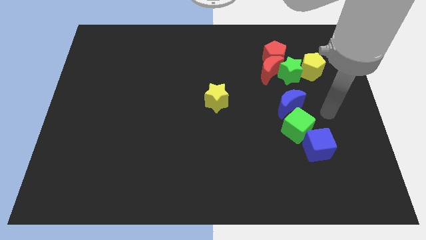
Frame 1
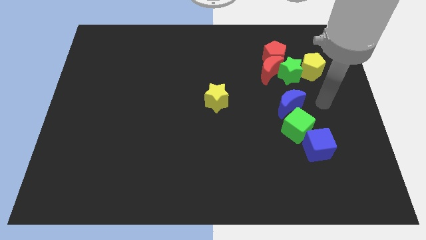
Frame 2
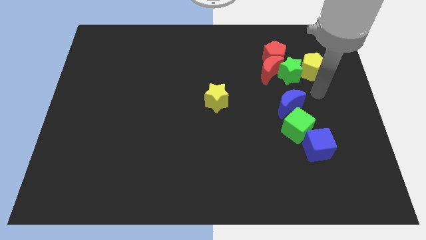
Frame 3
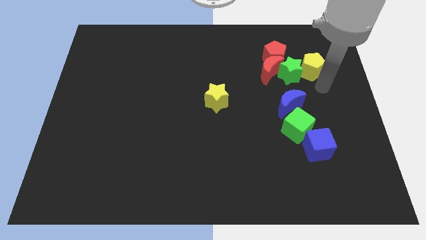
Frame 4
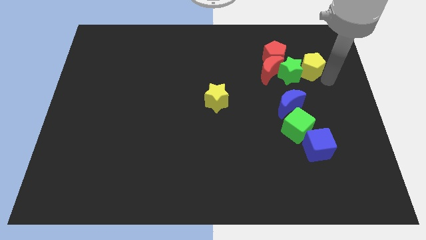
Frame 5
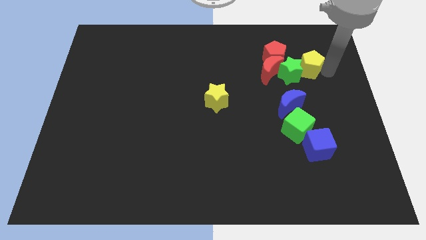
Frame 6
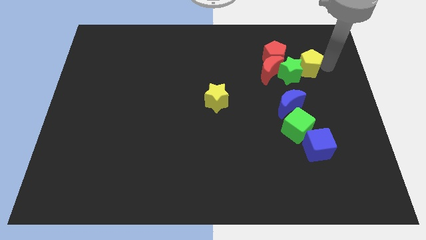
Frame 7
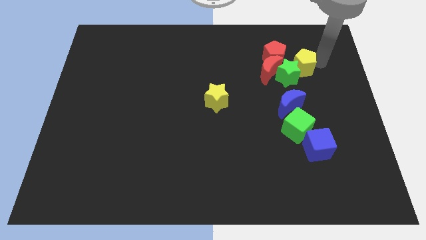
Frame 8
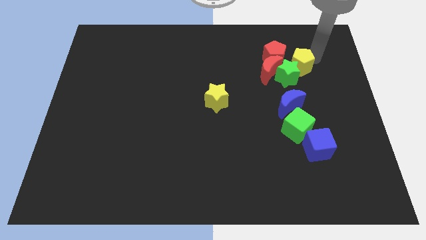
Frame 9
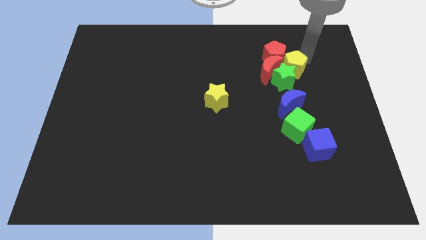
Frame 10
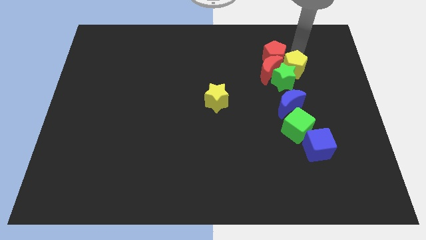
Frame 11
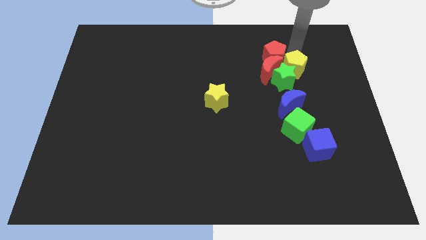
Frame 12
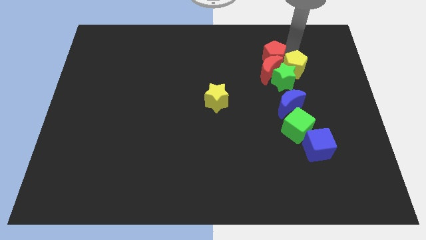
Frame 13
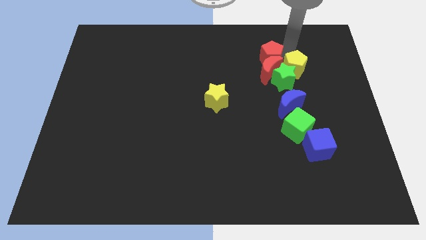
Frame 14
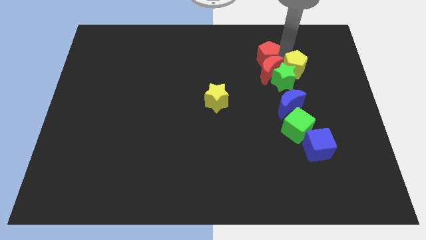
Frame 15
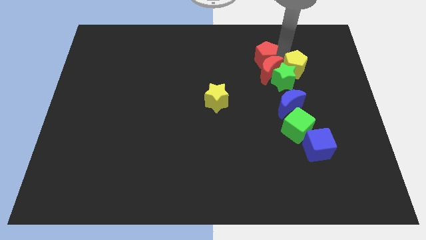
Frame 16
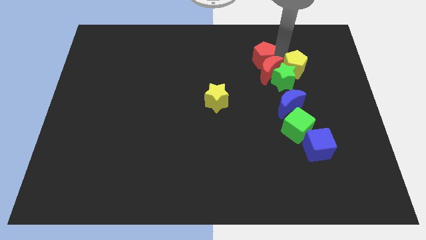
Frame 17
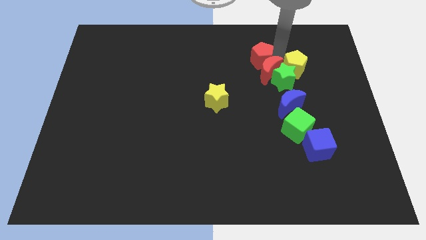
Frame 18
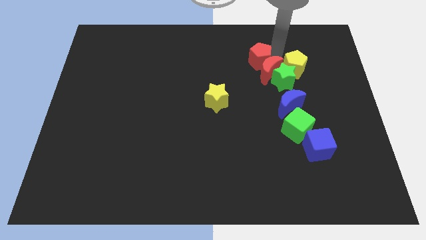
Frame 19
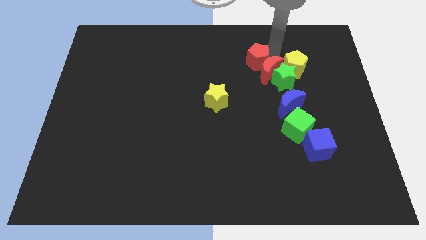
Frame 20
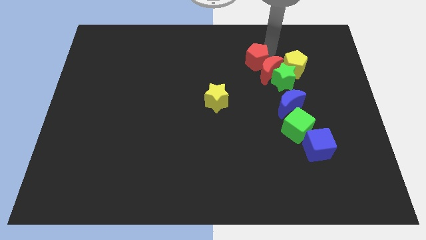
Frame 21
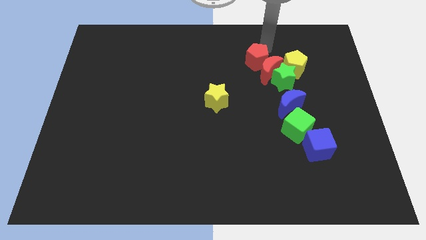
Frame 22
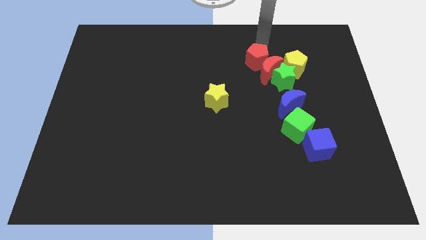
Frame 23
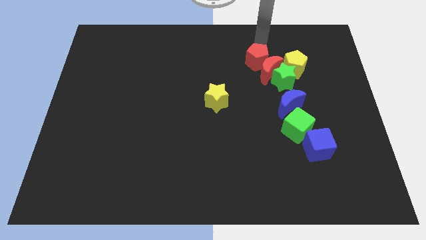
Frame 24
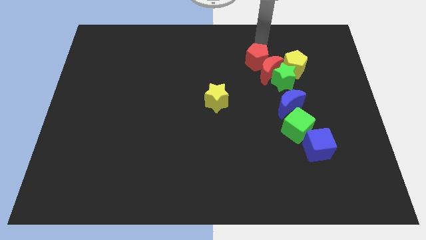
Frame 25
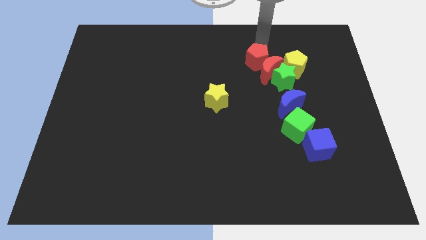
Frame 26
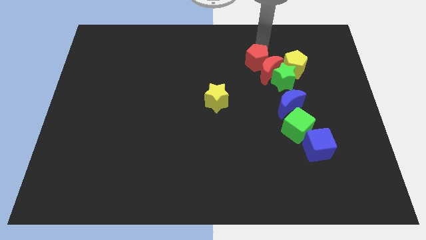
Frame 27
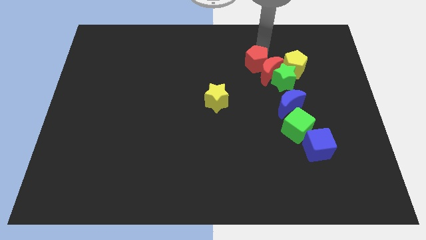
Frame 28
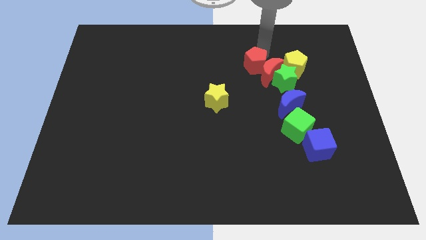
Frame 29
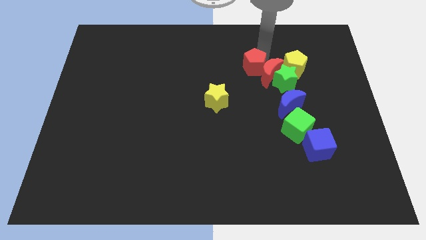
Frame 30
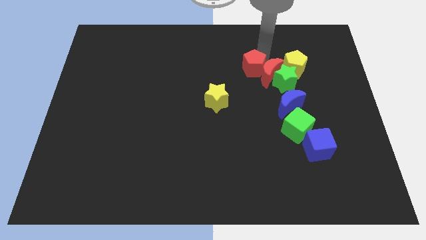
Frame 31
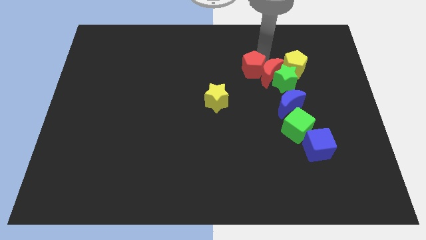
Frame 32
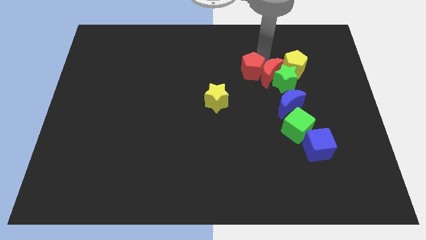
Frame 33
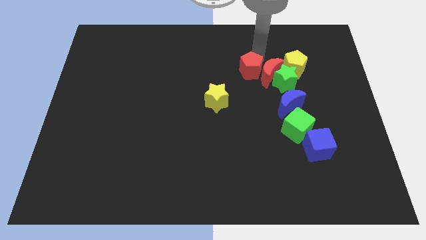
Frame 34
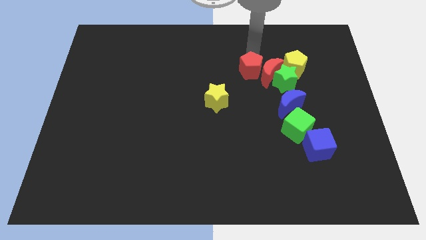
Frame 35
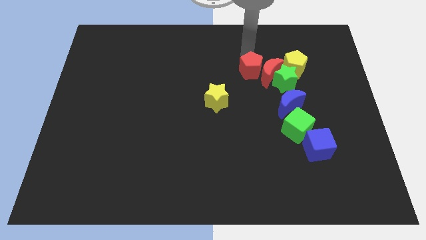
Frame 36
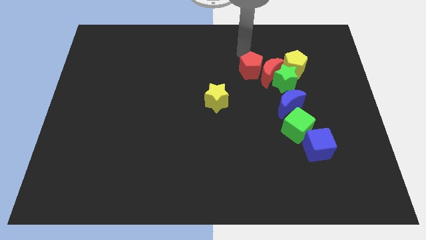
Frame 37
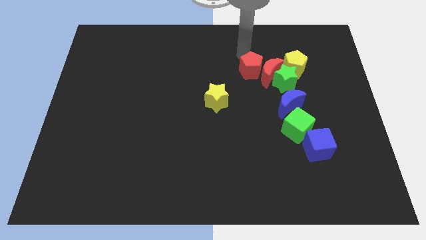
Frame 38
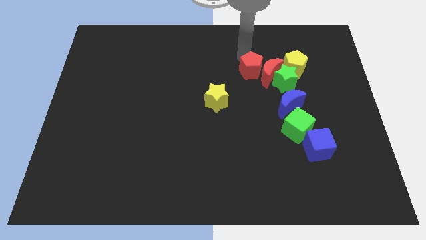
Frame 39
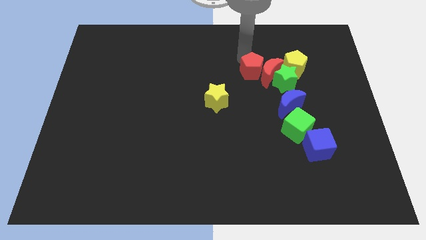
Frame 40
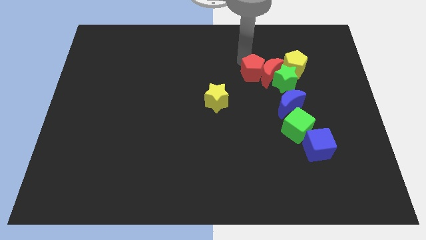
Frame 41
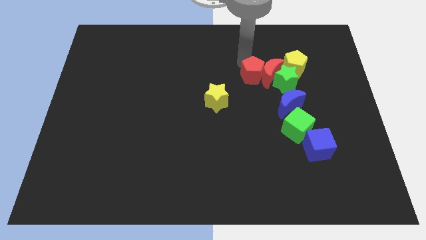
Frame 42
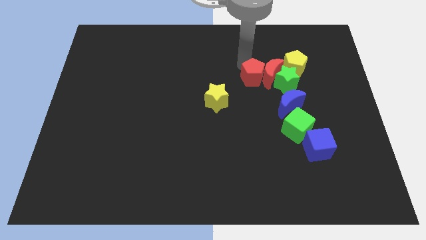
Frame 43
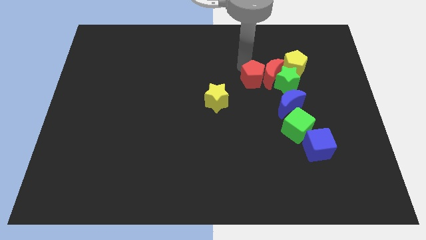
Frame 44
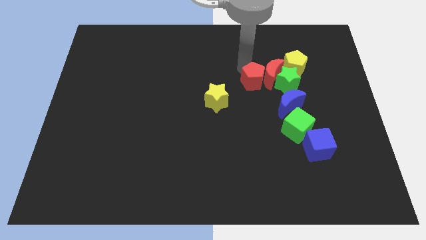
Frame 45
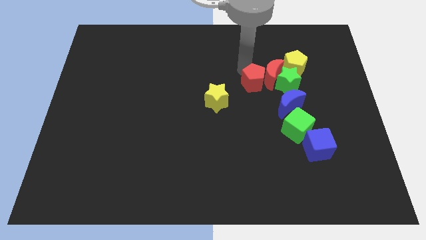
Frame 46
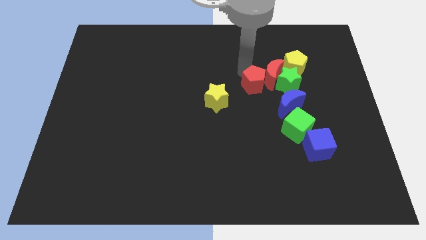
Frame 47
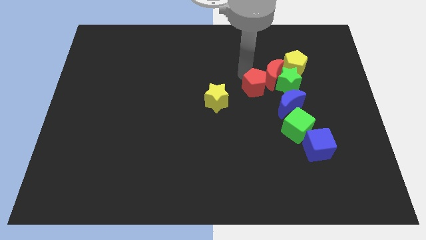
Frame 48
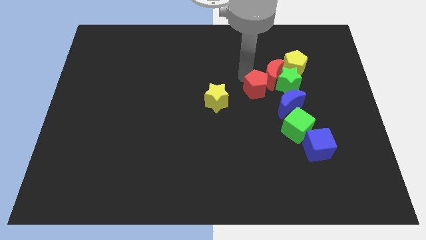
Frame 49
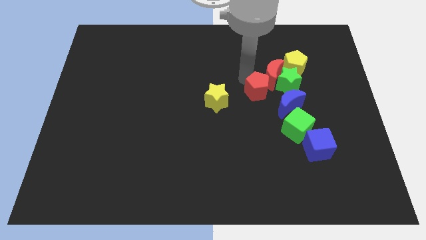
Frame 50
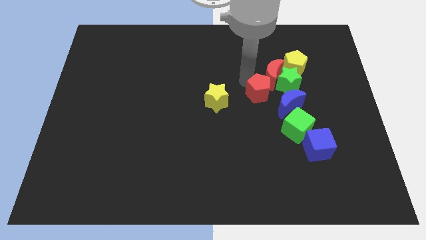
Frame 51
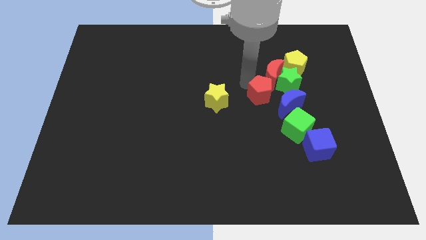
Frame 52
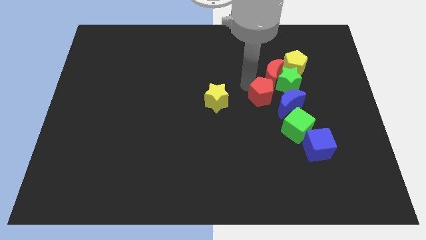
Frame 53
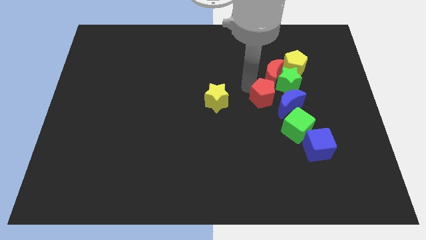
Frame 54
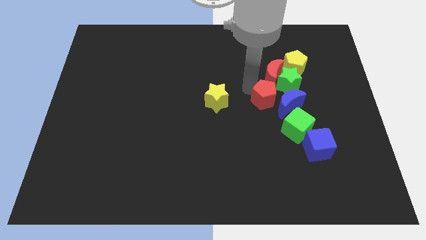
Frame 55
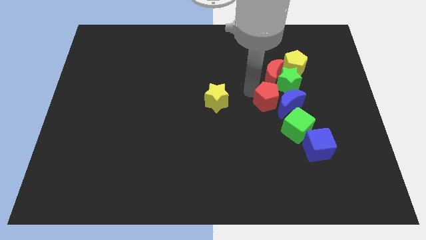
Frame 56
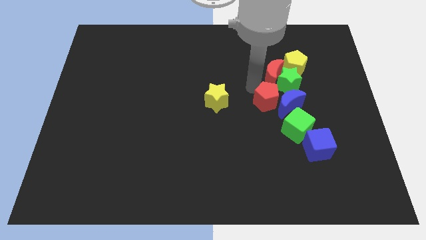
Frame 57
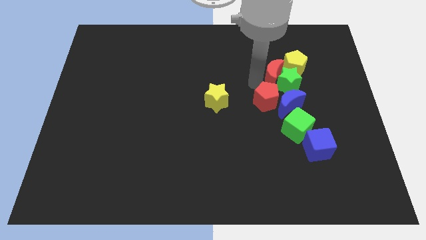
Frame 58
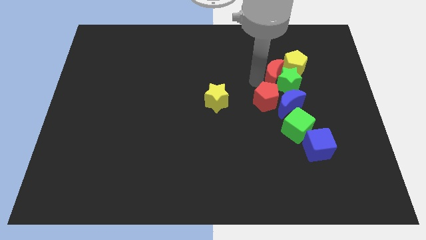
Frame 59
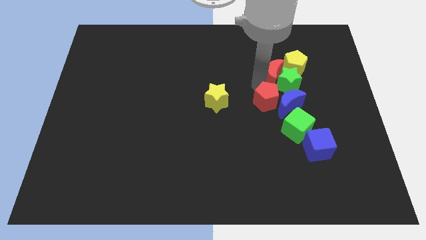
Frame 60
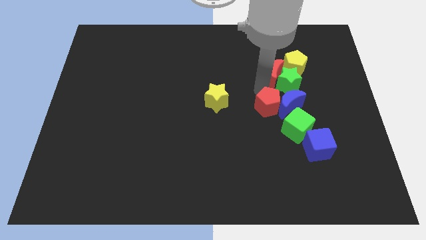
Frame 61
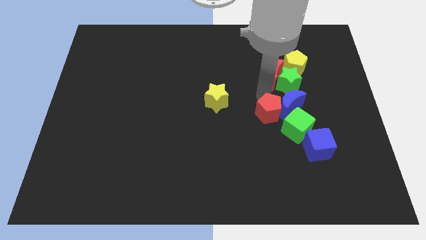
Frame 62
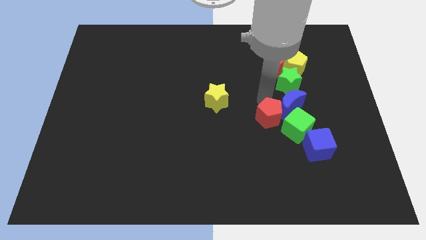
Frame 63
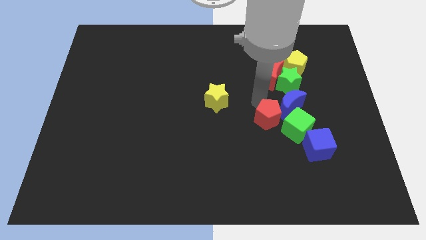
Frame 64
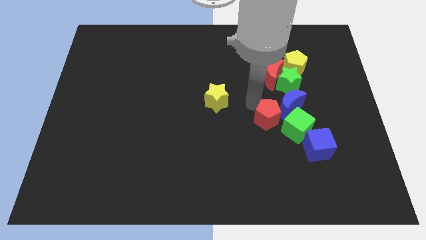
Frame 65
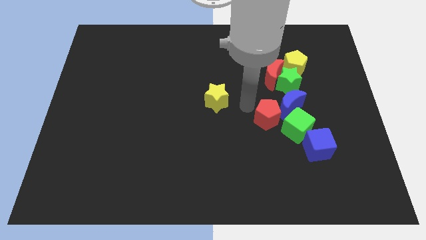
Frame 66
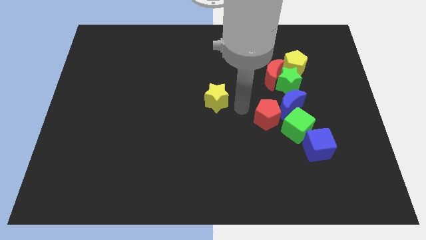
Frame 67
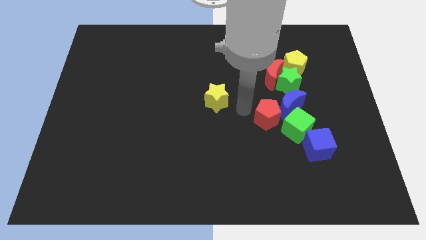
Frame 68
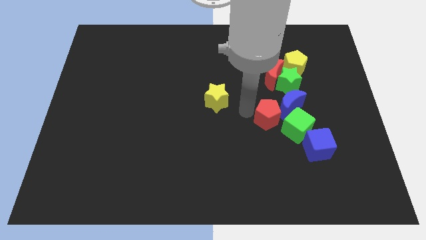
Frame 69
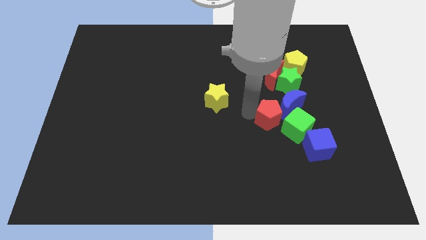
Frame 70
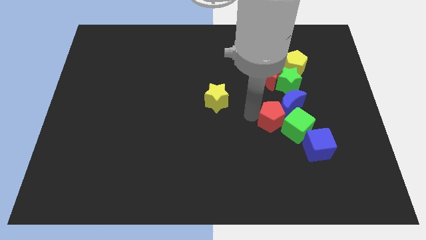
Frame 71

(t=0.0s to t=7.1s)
move the red pentagon next to the green cube
